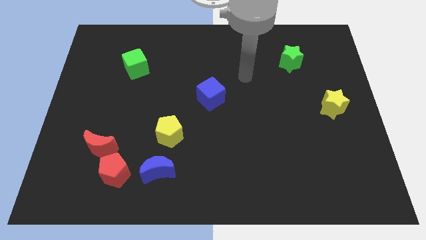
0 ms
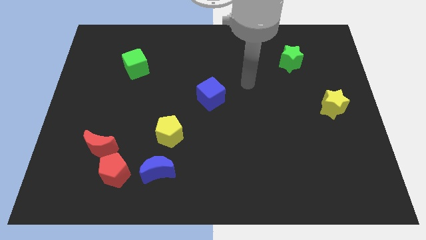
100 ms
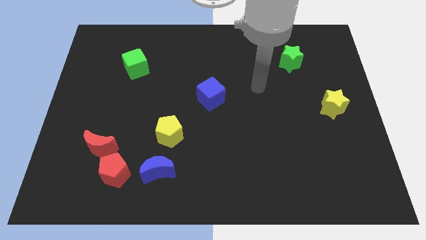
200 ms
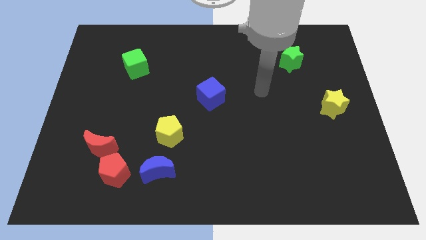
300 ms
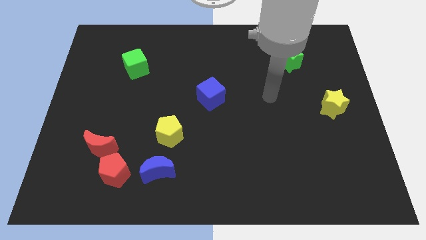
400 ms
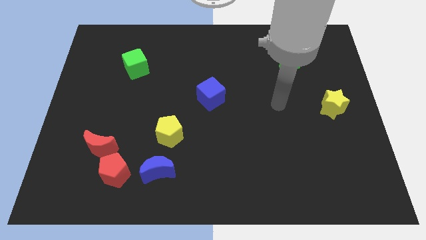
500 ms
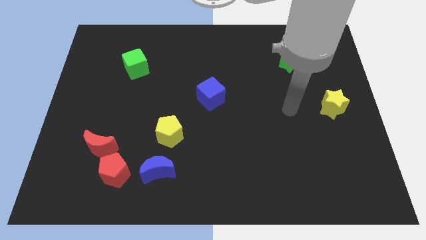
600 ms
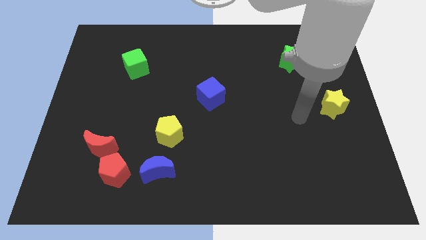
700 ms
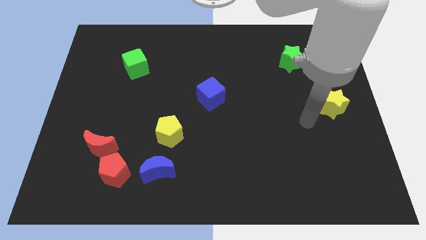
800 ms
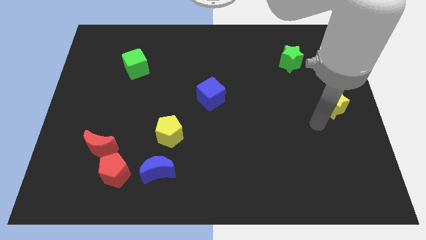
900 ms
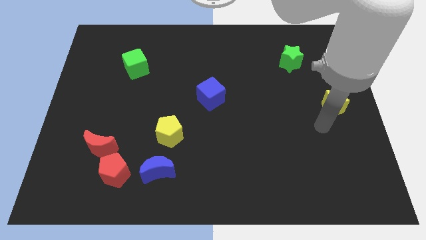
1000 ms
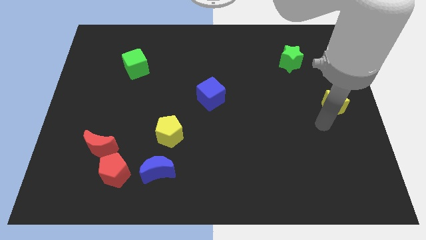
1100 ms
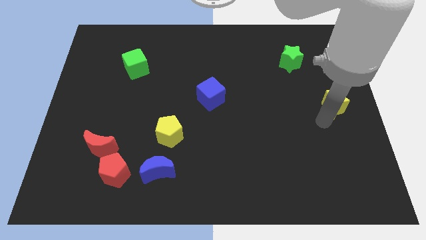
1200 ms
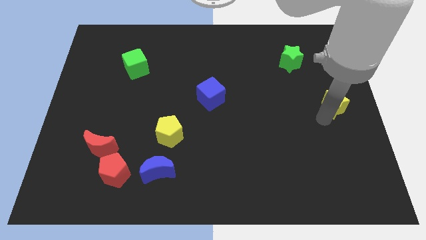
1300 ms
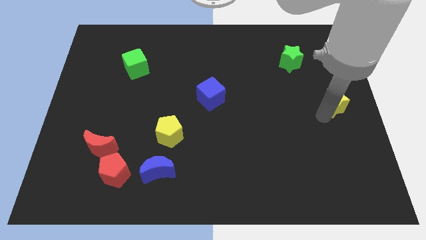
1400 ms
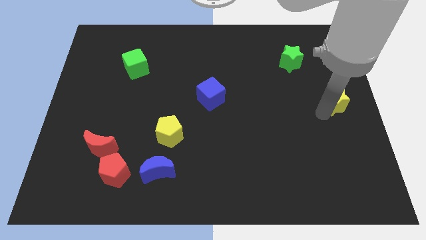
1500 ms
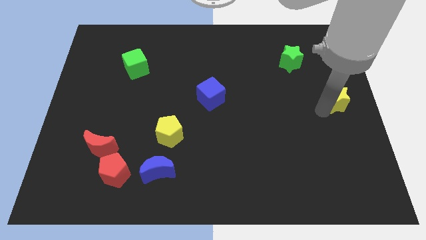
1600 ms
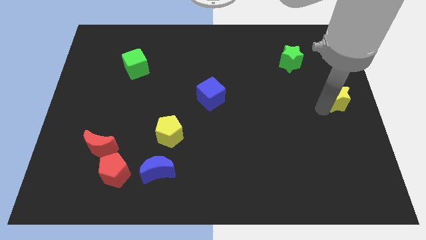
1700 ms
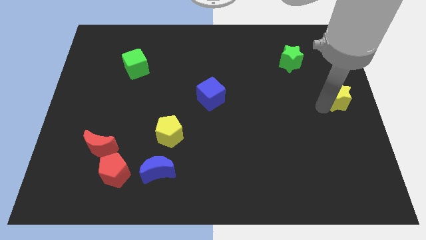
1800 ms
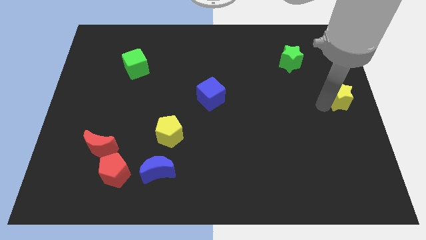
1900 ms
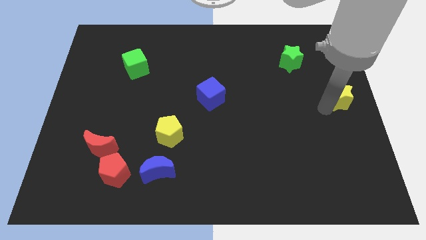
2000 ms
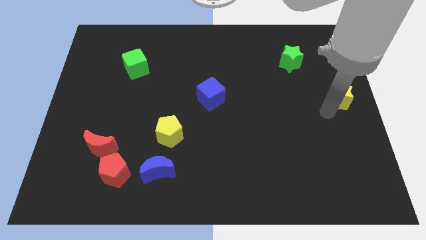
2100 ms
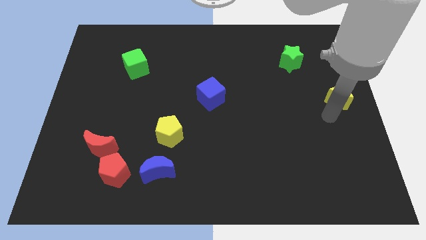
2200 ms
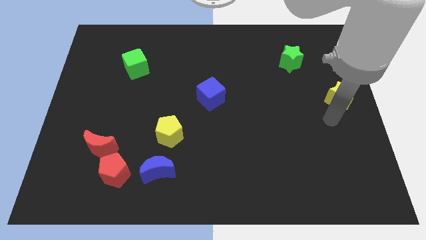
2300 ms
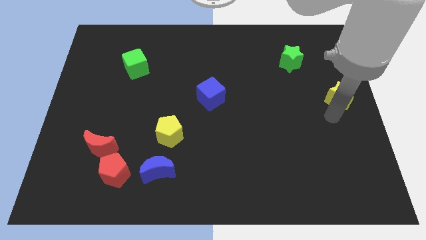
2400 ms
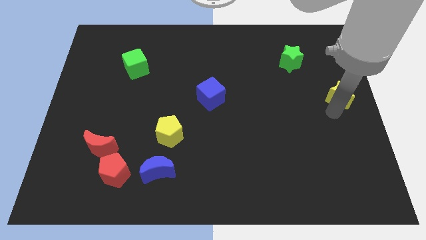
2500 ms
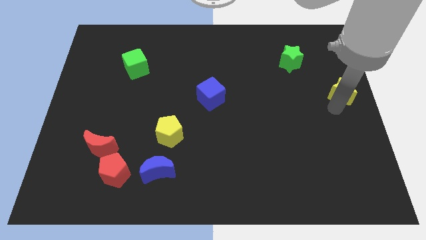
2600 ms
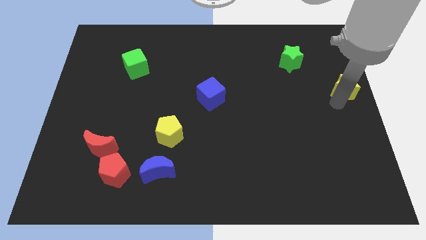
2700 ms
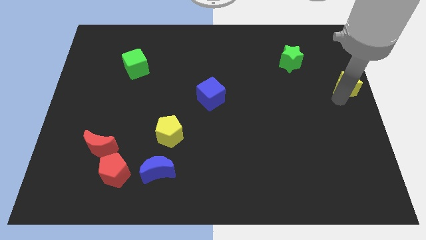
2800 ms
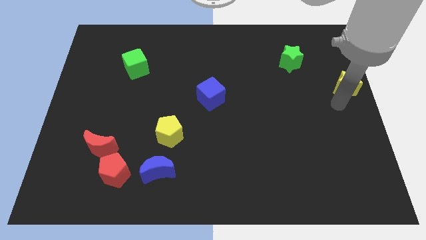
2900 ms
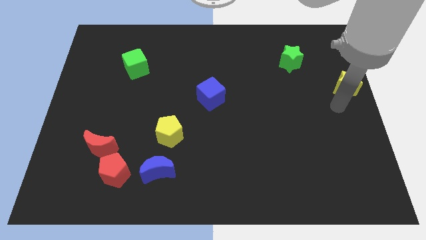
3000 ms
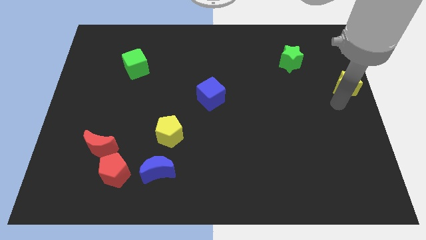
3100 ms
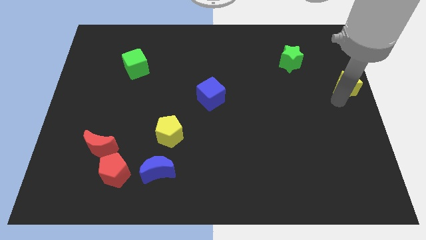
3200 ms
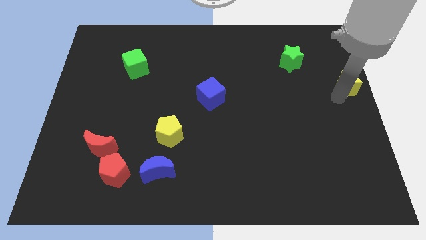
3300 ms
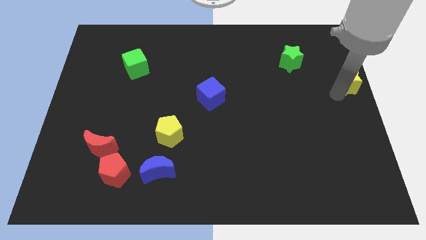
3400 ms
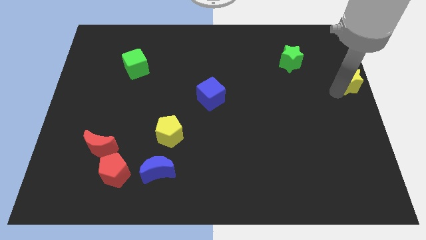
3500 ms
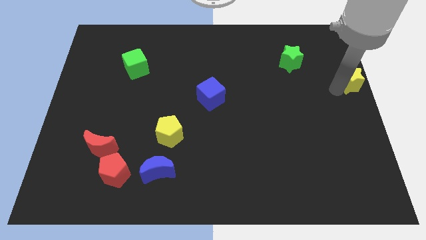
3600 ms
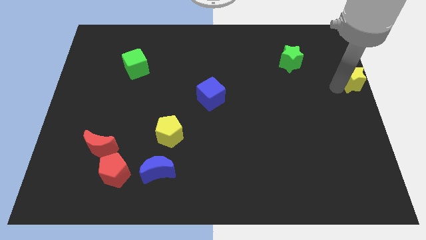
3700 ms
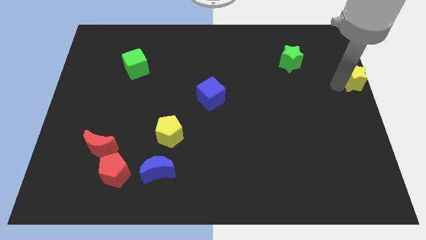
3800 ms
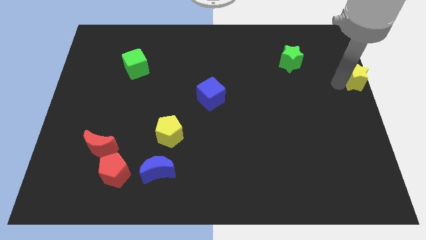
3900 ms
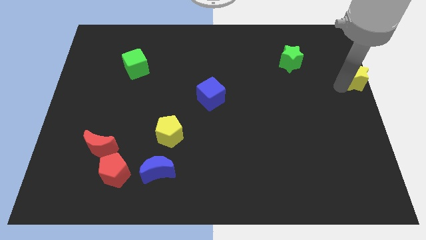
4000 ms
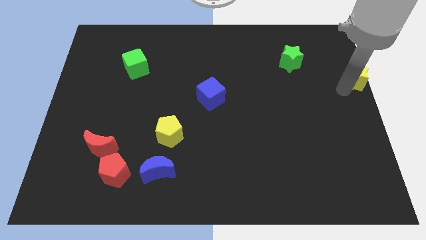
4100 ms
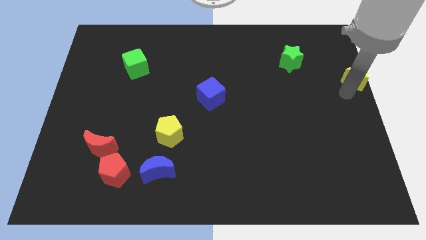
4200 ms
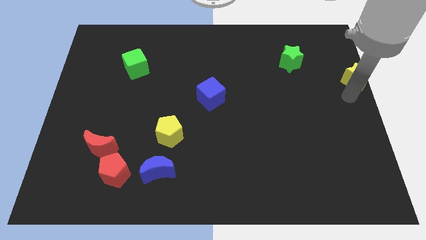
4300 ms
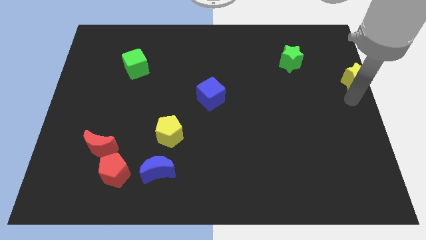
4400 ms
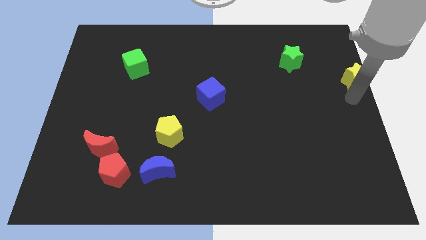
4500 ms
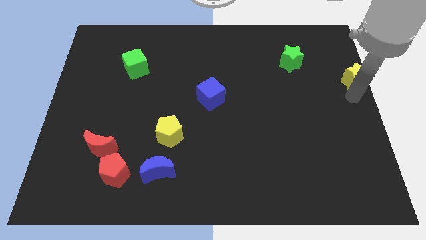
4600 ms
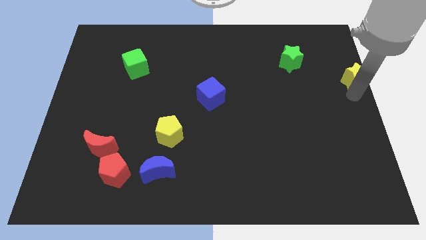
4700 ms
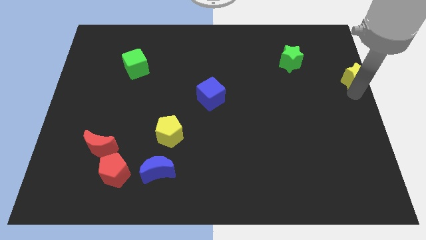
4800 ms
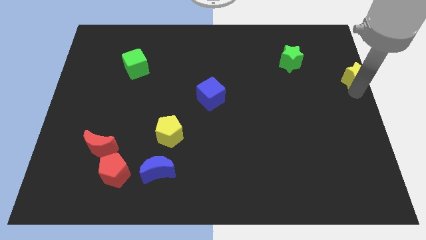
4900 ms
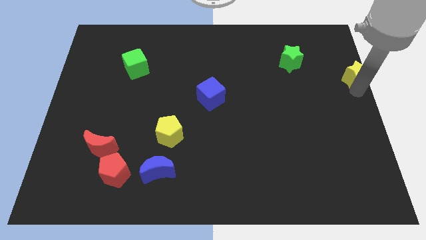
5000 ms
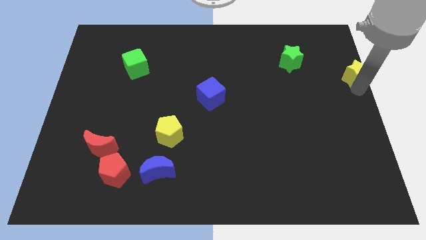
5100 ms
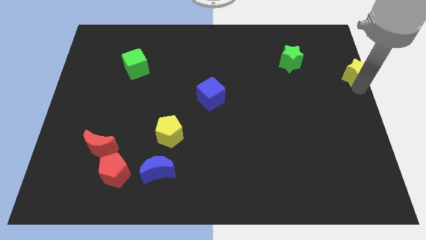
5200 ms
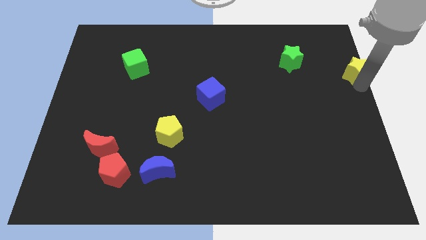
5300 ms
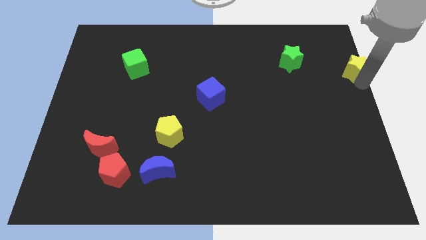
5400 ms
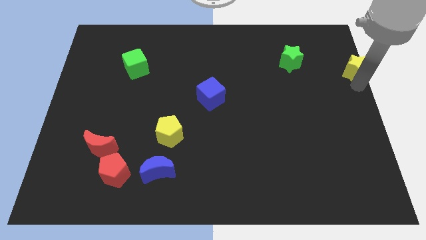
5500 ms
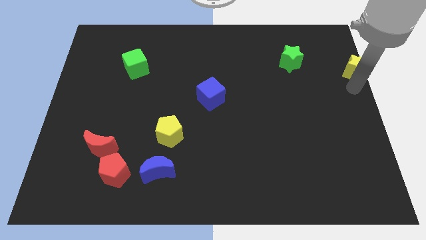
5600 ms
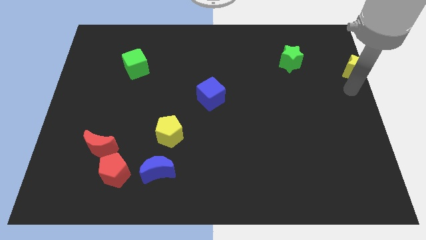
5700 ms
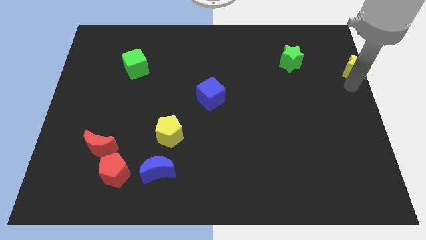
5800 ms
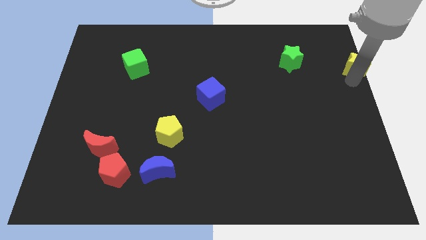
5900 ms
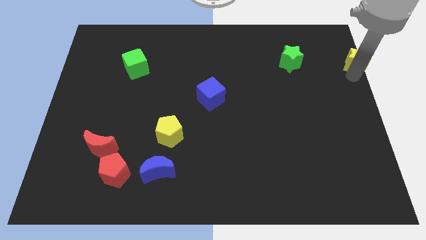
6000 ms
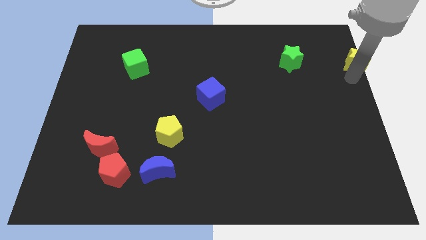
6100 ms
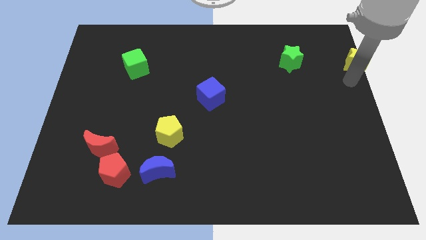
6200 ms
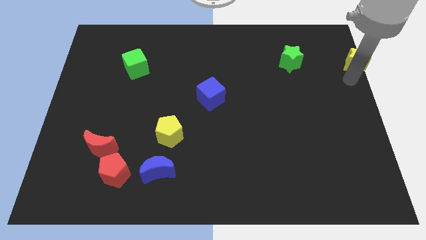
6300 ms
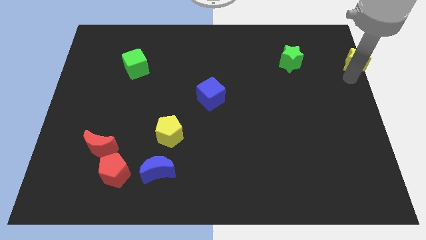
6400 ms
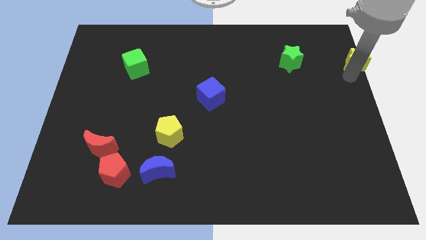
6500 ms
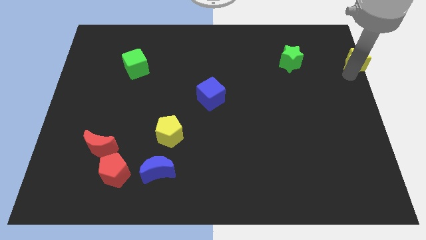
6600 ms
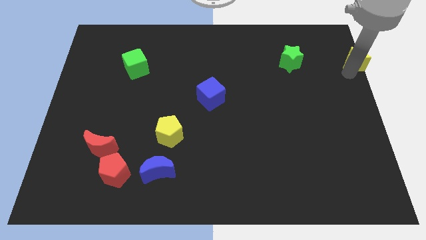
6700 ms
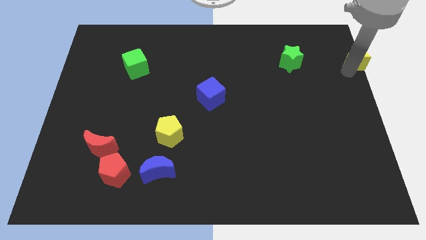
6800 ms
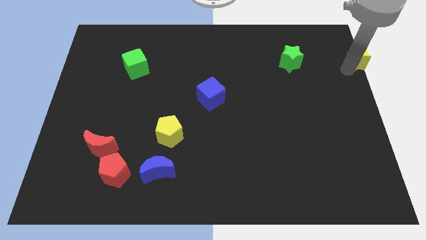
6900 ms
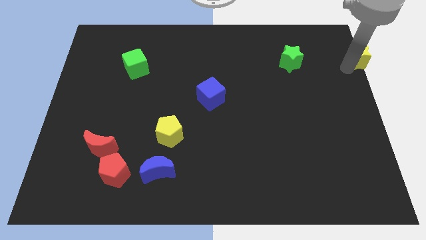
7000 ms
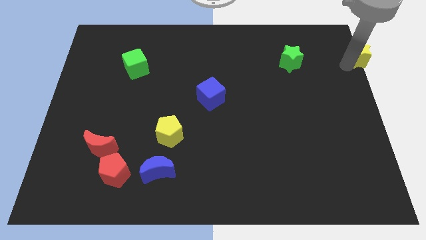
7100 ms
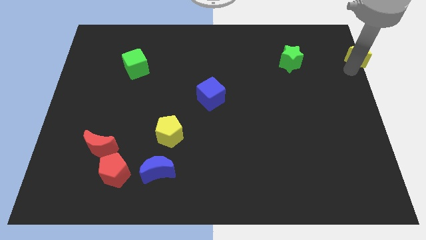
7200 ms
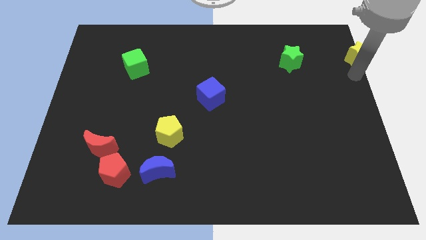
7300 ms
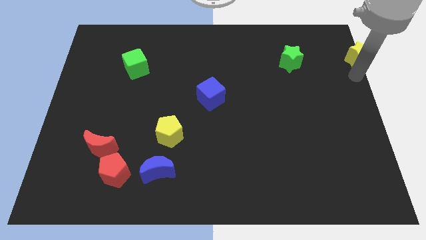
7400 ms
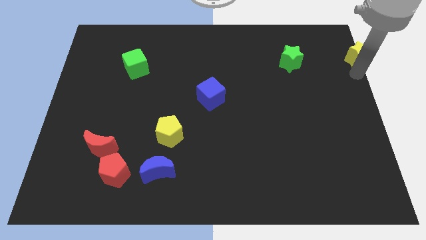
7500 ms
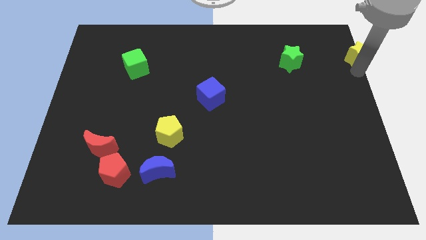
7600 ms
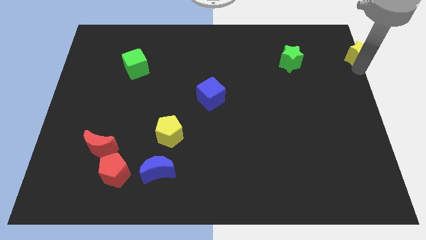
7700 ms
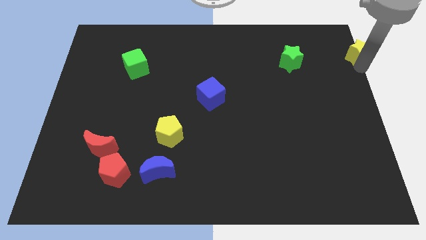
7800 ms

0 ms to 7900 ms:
put the yellow star to the upper right corner
